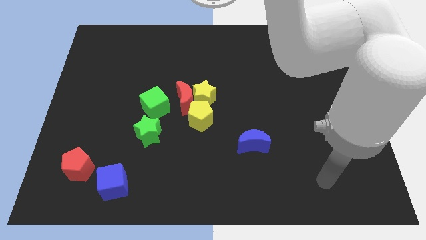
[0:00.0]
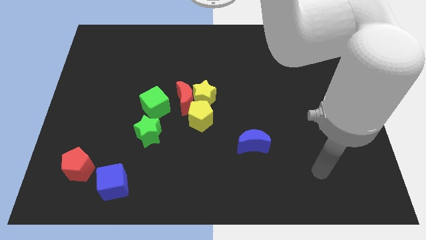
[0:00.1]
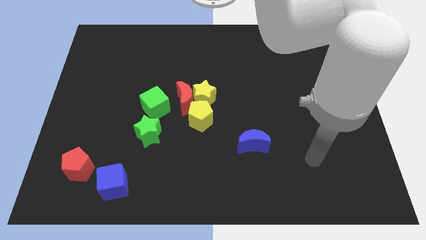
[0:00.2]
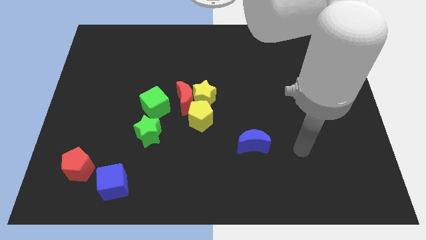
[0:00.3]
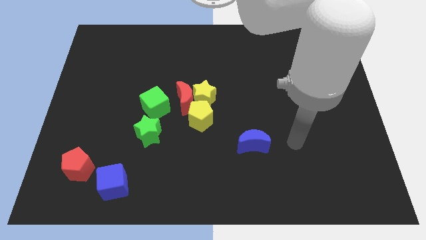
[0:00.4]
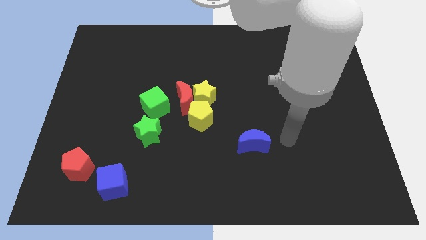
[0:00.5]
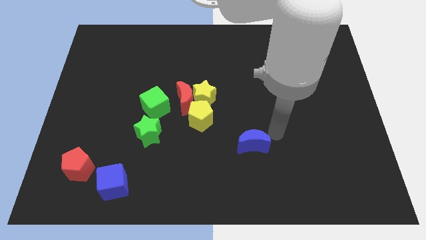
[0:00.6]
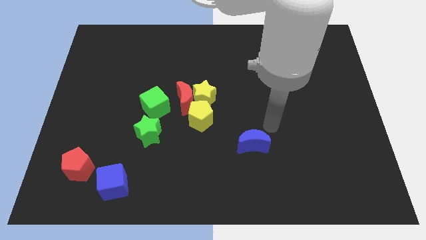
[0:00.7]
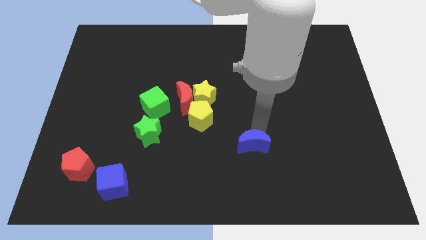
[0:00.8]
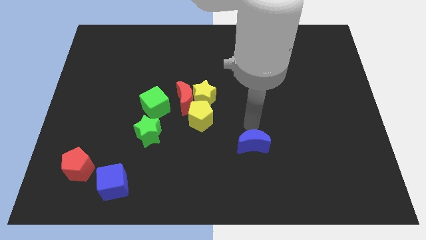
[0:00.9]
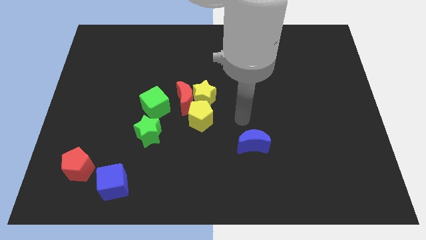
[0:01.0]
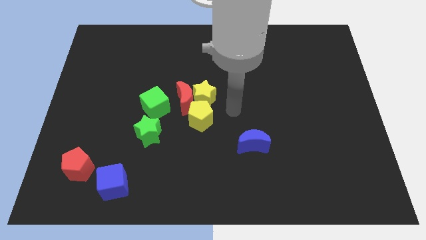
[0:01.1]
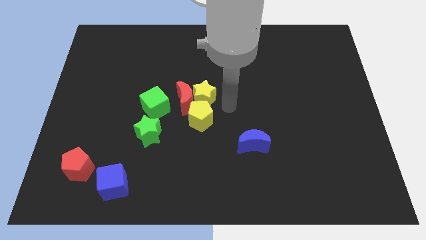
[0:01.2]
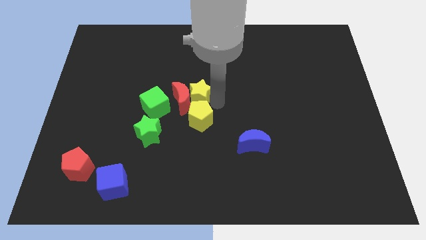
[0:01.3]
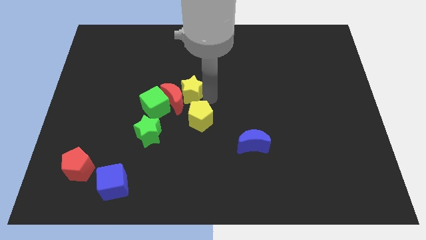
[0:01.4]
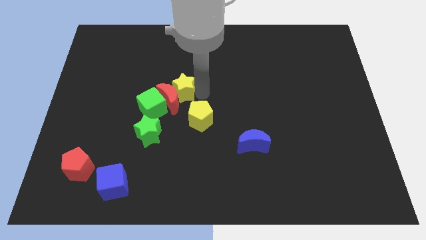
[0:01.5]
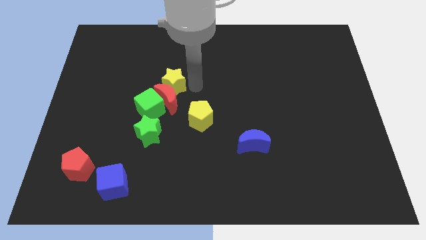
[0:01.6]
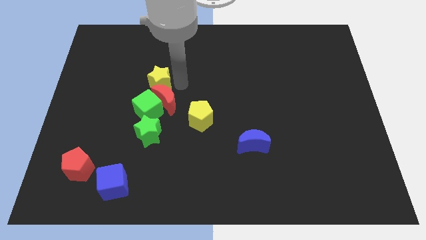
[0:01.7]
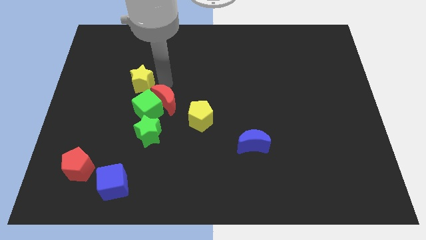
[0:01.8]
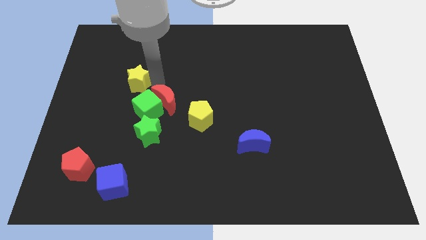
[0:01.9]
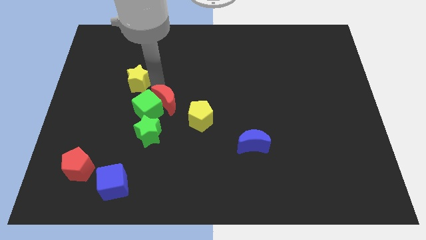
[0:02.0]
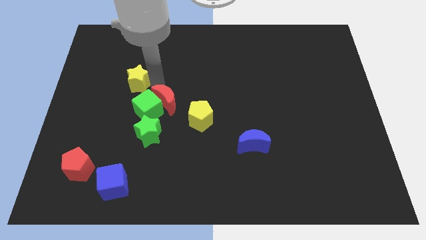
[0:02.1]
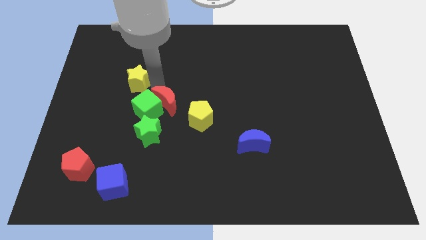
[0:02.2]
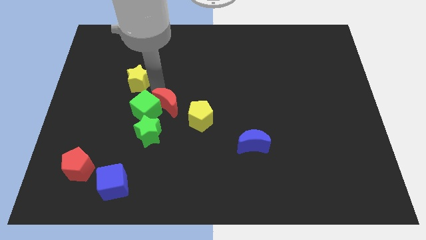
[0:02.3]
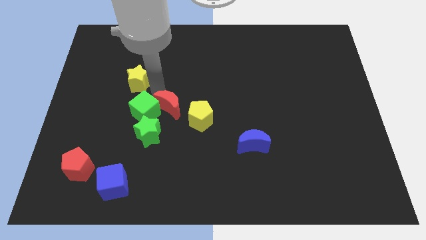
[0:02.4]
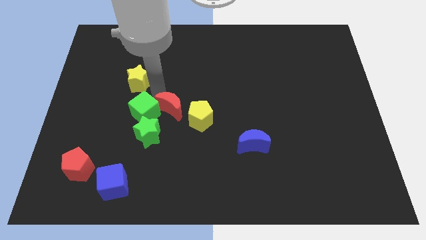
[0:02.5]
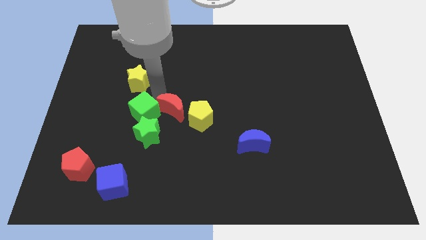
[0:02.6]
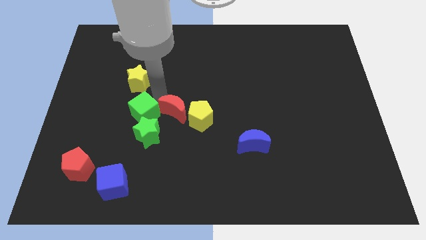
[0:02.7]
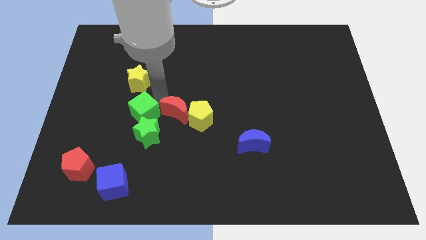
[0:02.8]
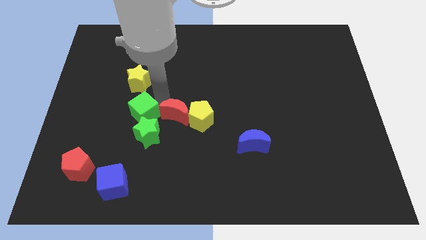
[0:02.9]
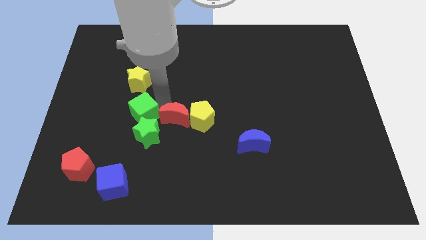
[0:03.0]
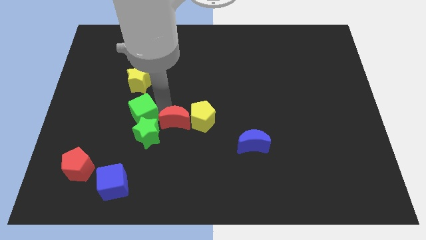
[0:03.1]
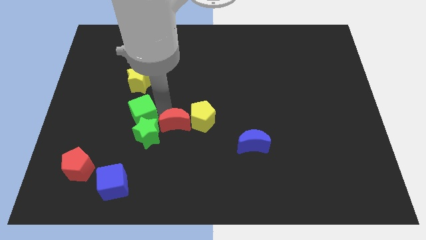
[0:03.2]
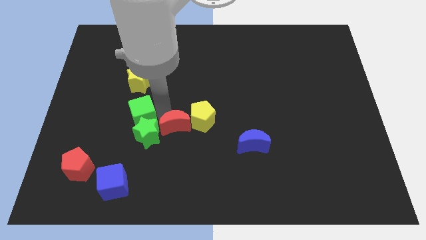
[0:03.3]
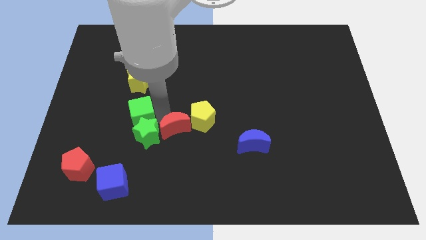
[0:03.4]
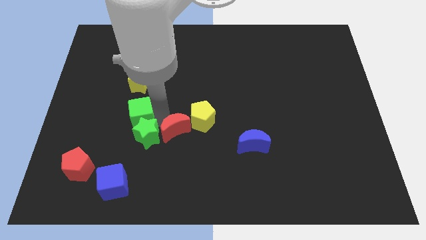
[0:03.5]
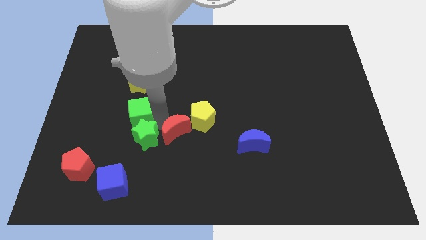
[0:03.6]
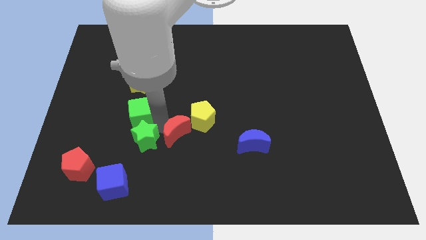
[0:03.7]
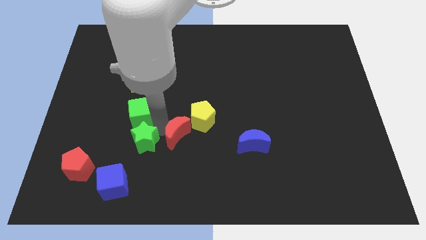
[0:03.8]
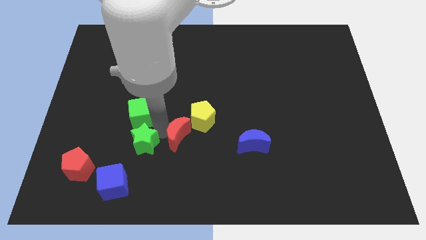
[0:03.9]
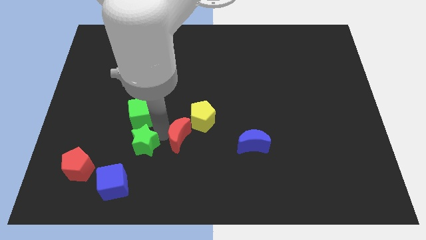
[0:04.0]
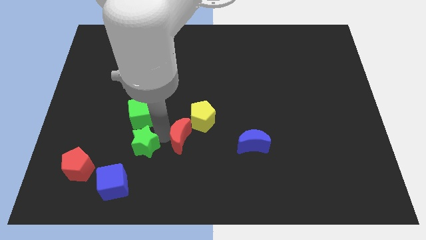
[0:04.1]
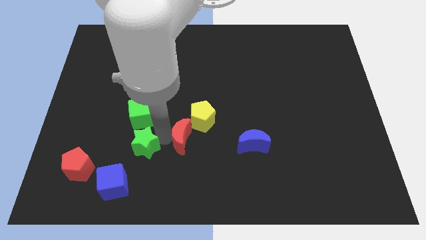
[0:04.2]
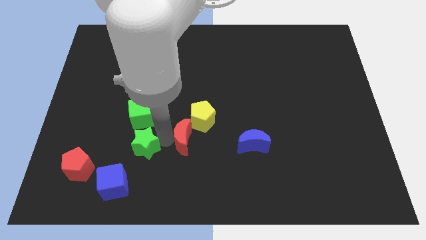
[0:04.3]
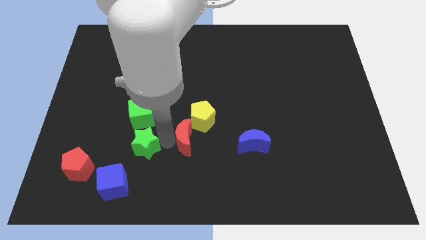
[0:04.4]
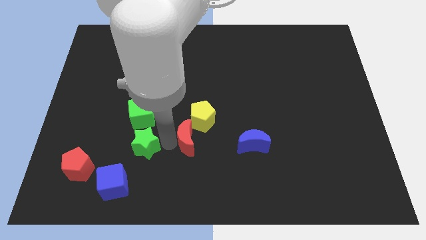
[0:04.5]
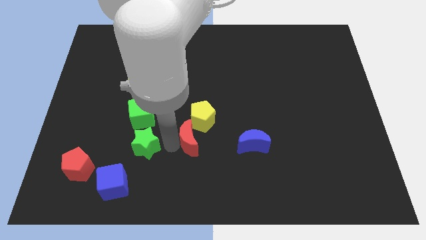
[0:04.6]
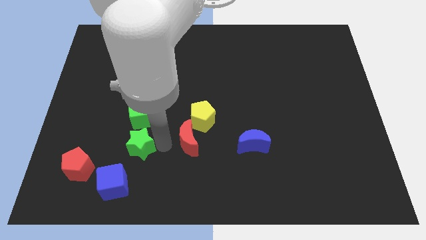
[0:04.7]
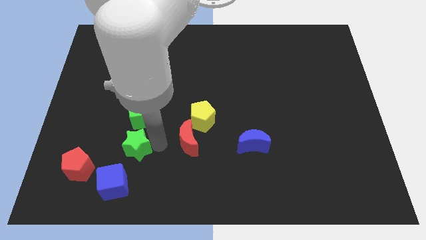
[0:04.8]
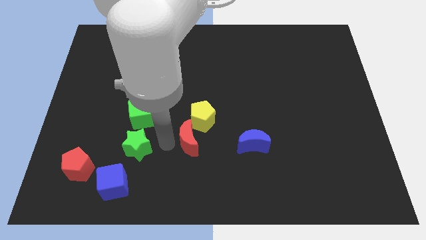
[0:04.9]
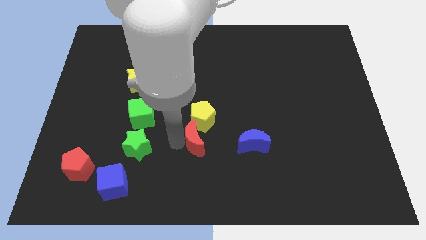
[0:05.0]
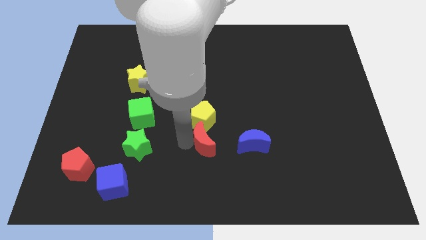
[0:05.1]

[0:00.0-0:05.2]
put the red moon diagonally down and to the right of the yellow pentagon

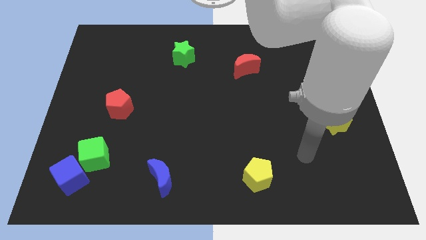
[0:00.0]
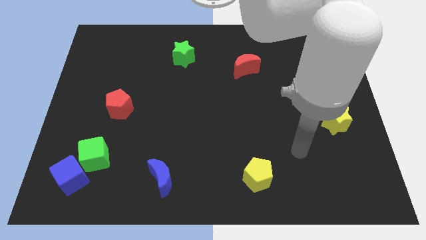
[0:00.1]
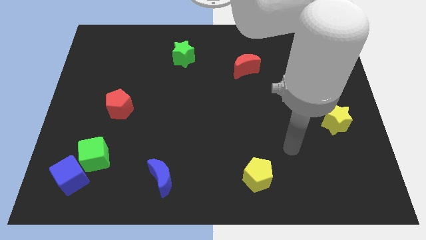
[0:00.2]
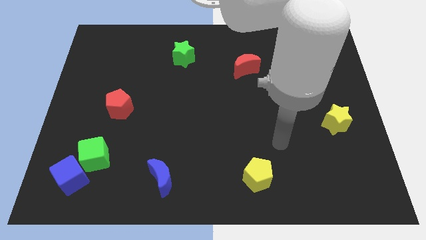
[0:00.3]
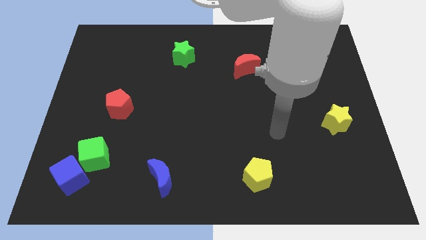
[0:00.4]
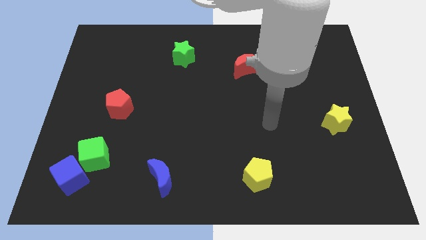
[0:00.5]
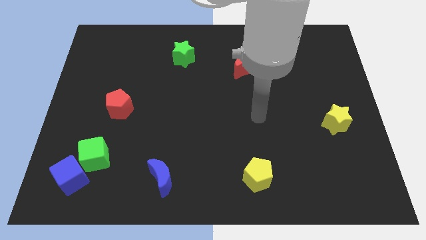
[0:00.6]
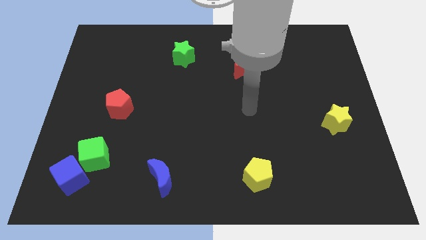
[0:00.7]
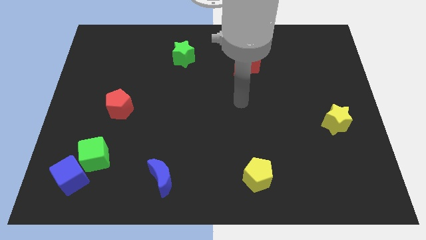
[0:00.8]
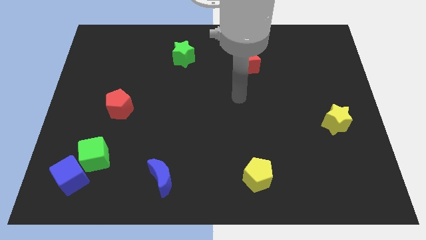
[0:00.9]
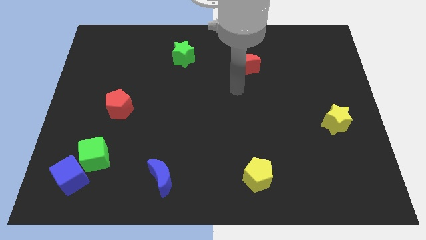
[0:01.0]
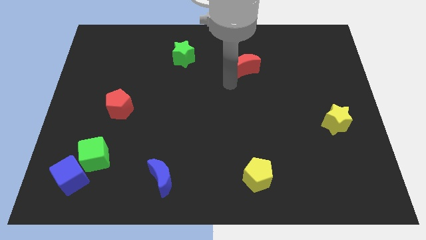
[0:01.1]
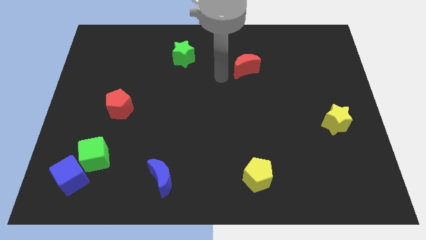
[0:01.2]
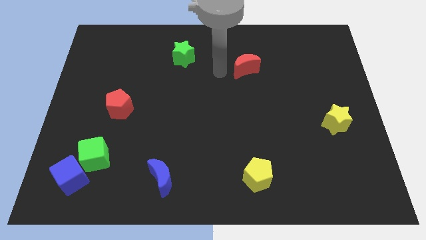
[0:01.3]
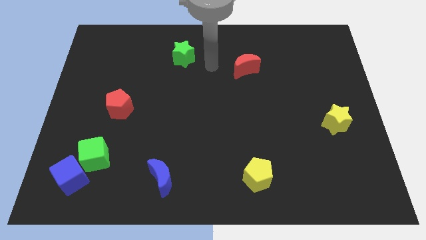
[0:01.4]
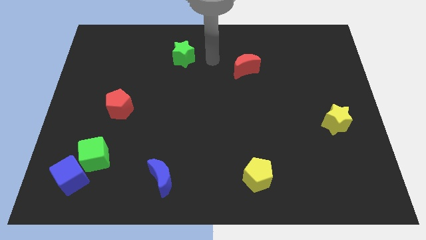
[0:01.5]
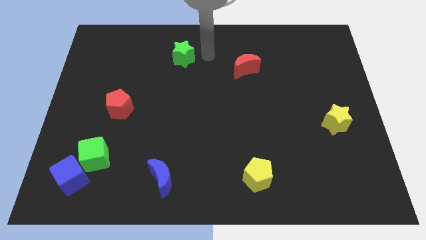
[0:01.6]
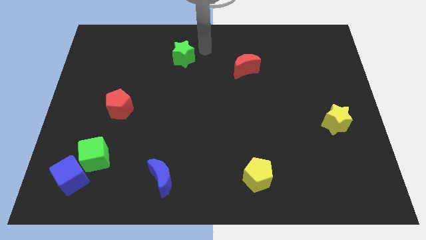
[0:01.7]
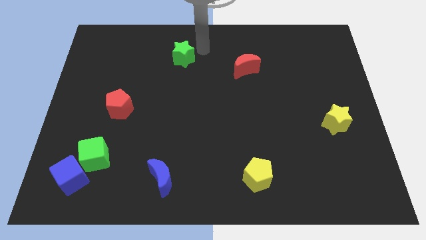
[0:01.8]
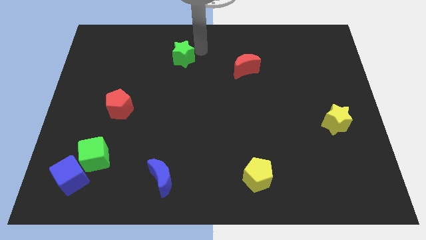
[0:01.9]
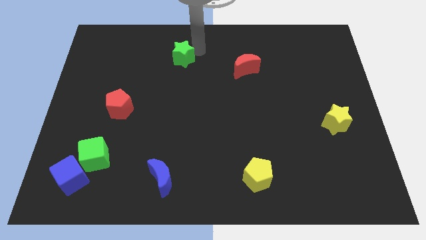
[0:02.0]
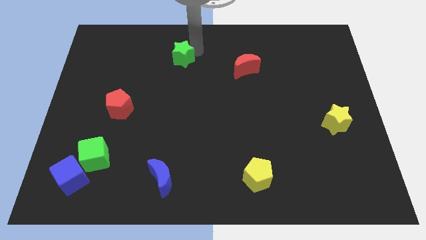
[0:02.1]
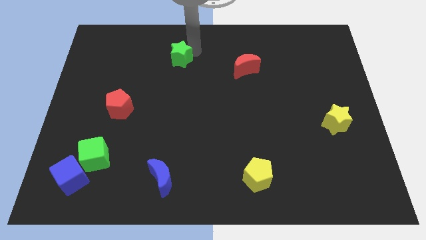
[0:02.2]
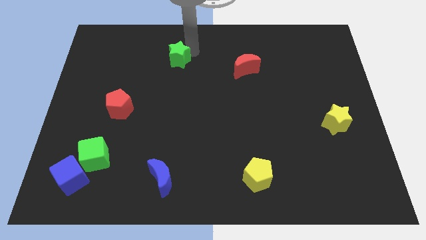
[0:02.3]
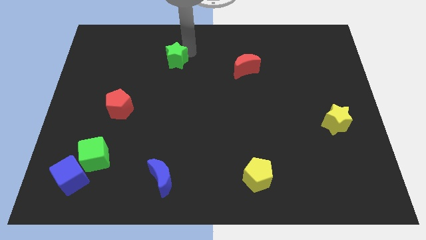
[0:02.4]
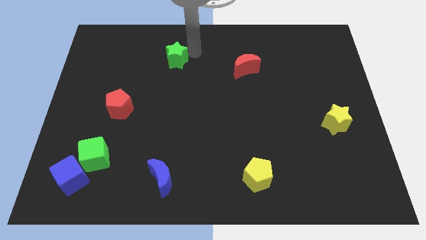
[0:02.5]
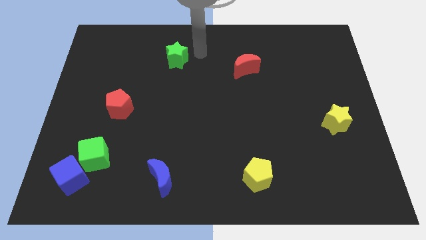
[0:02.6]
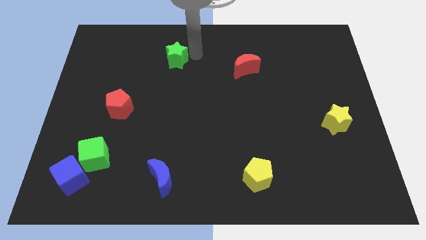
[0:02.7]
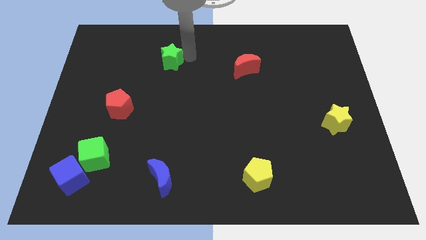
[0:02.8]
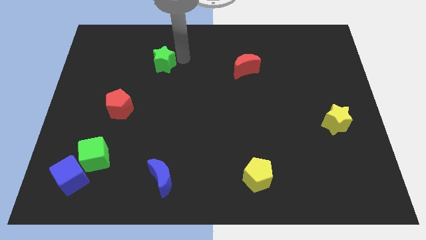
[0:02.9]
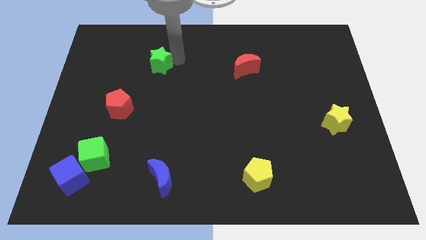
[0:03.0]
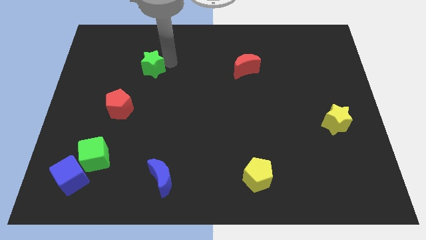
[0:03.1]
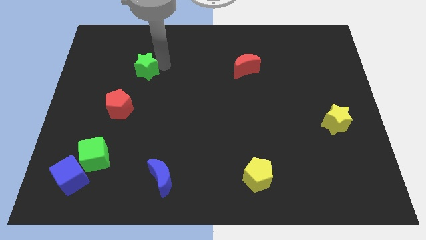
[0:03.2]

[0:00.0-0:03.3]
move the green star to the top of the red pentagon
